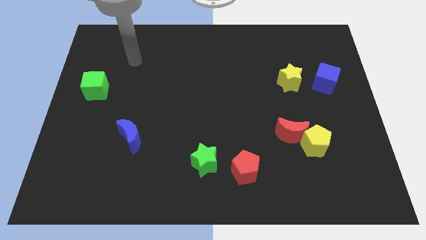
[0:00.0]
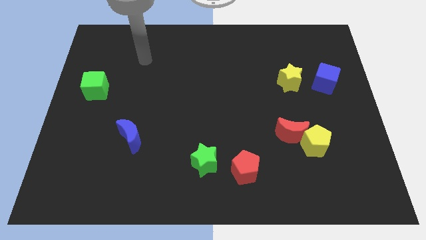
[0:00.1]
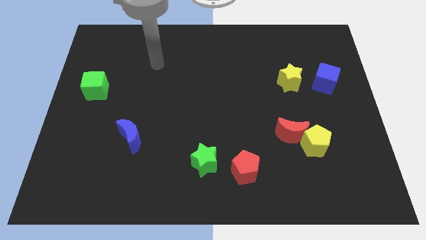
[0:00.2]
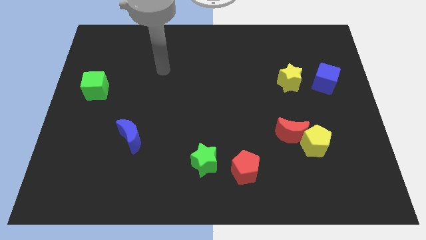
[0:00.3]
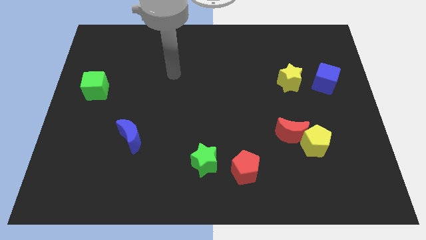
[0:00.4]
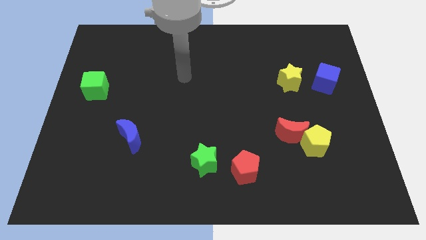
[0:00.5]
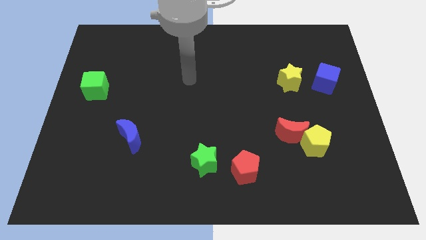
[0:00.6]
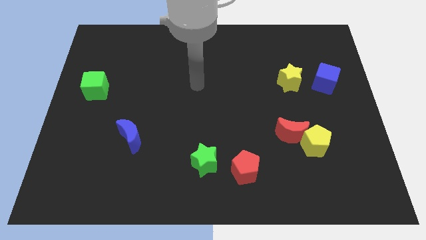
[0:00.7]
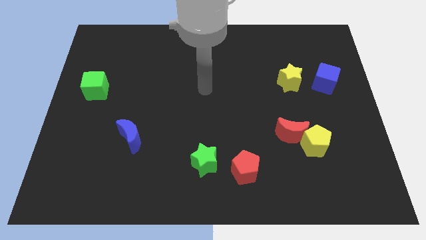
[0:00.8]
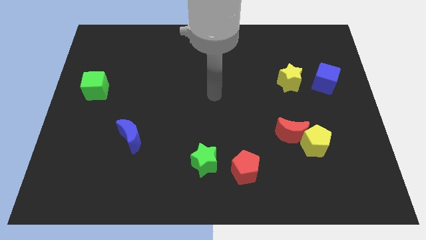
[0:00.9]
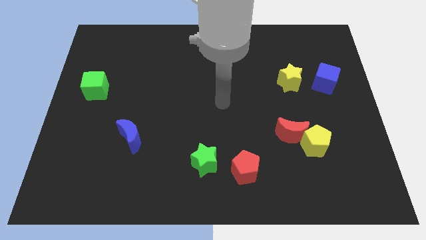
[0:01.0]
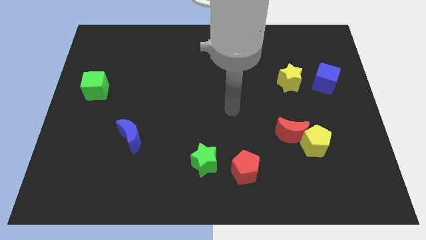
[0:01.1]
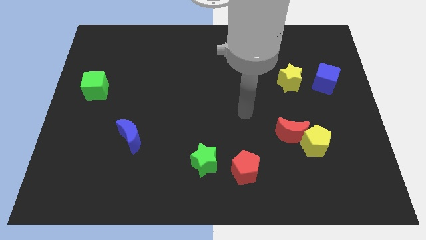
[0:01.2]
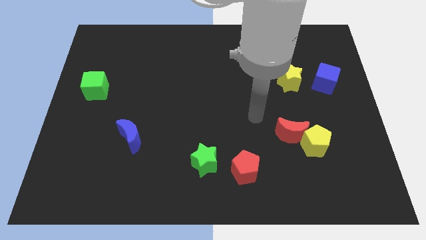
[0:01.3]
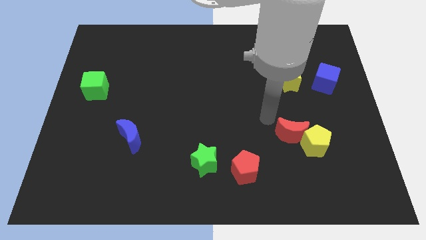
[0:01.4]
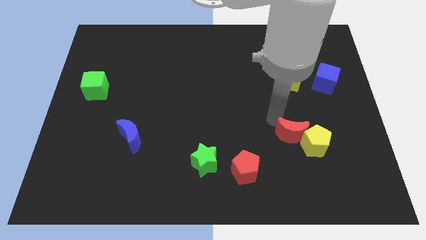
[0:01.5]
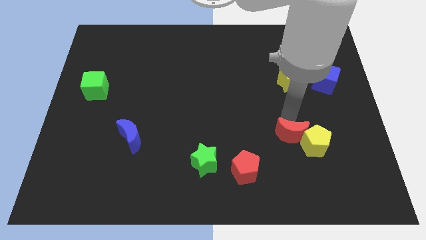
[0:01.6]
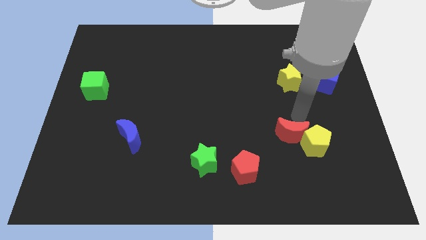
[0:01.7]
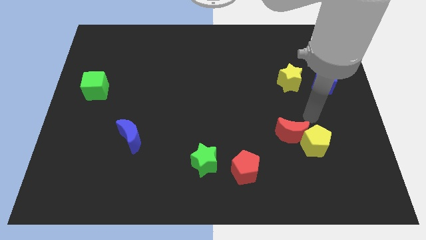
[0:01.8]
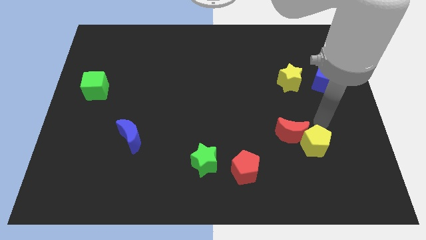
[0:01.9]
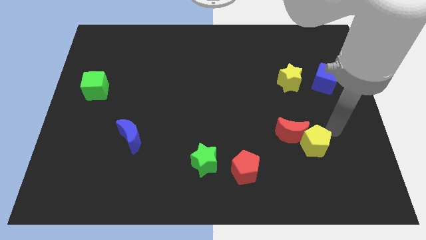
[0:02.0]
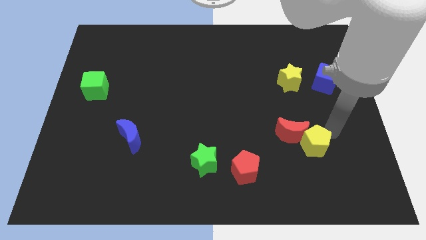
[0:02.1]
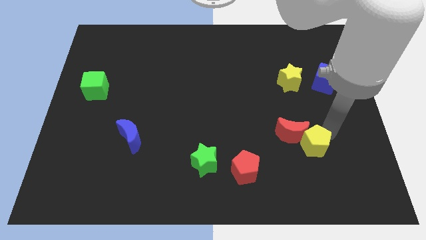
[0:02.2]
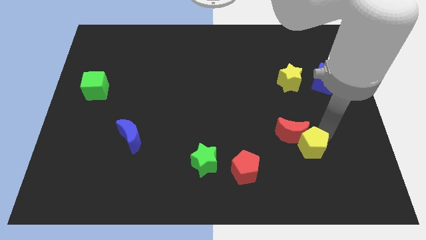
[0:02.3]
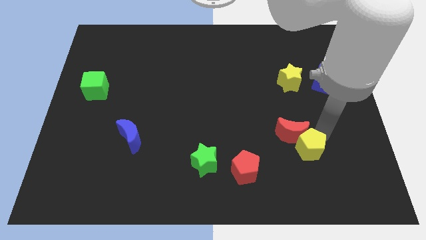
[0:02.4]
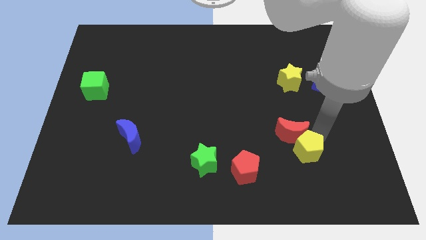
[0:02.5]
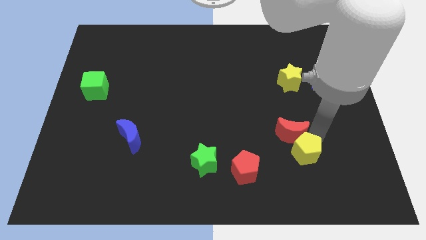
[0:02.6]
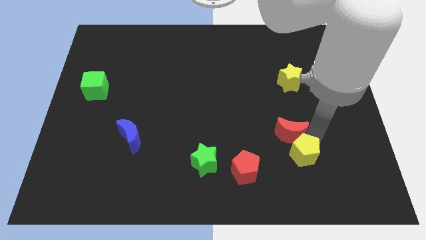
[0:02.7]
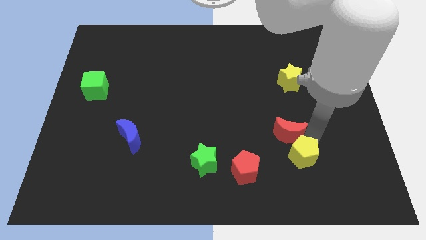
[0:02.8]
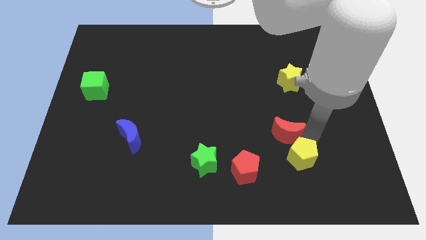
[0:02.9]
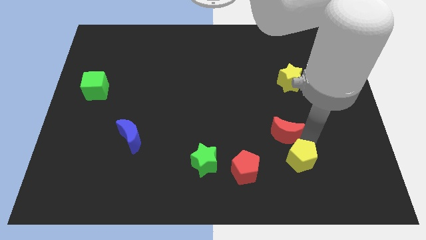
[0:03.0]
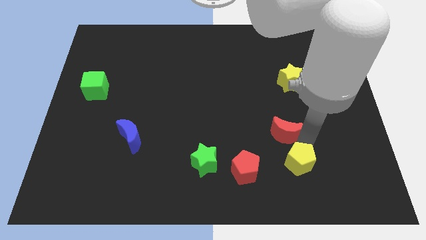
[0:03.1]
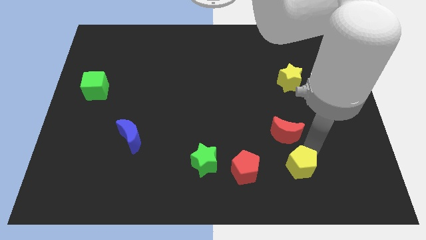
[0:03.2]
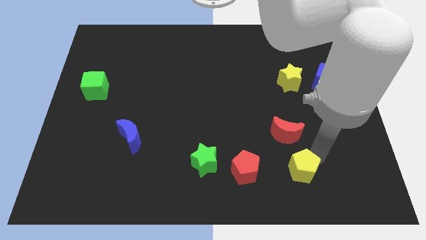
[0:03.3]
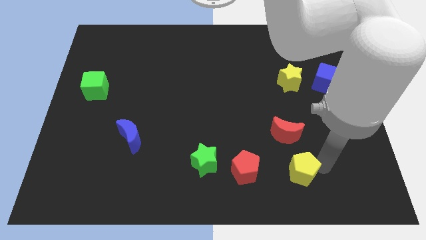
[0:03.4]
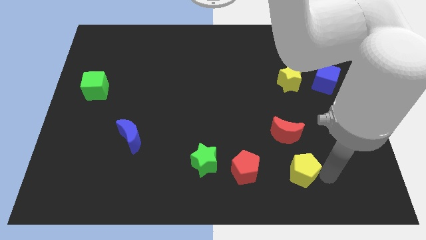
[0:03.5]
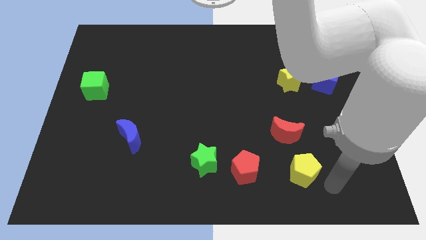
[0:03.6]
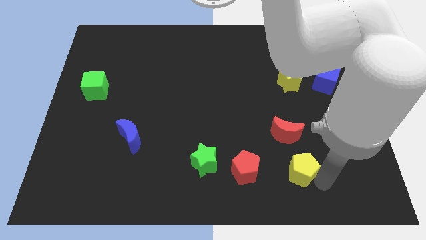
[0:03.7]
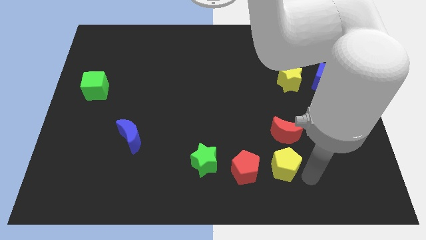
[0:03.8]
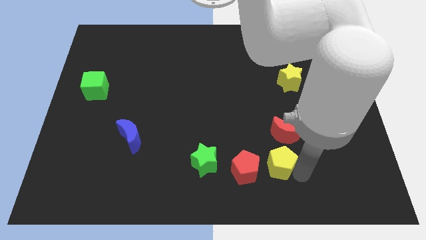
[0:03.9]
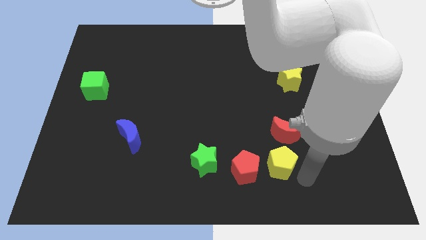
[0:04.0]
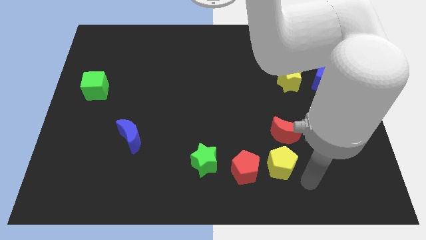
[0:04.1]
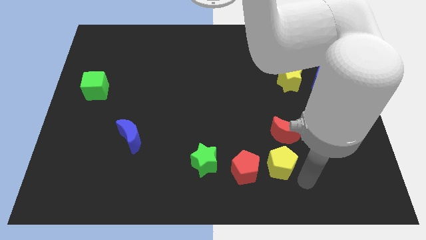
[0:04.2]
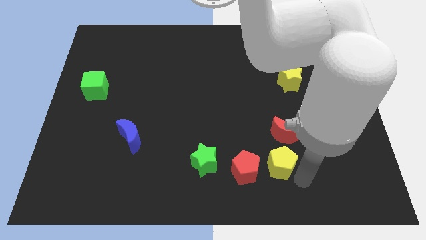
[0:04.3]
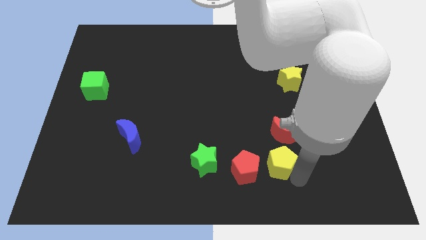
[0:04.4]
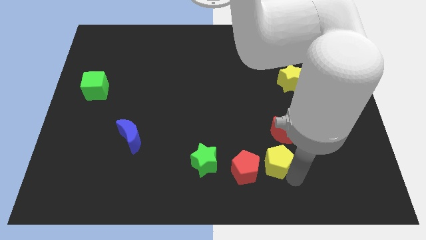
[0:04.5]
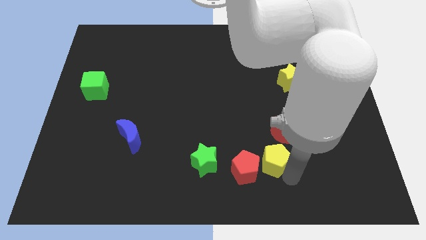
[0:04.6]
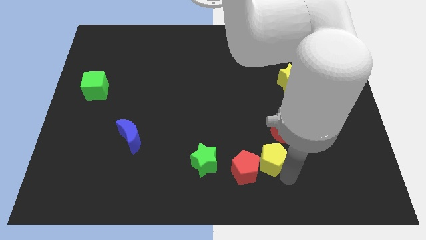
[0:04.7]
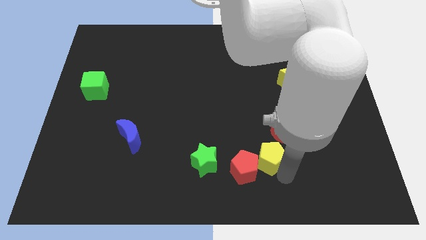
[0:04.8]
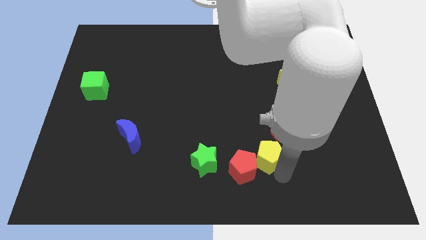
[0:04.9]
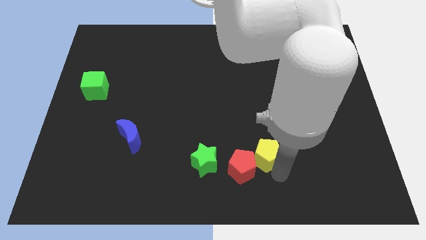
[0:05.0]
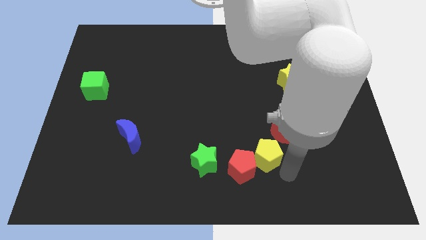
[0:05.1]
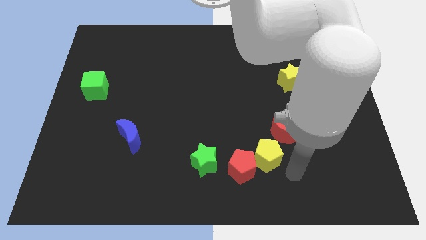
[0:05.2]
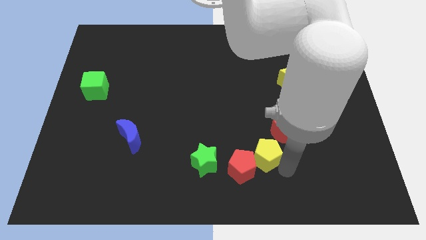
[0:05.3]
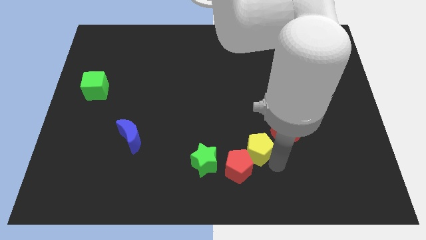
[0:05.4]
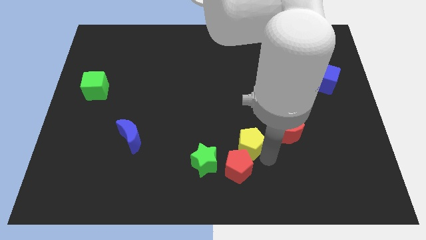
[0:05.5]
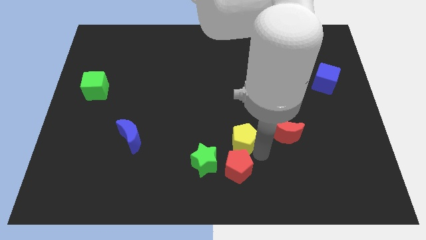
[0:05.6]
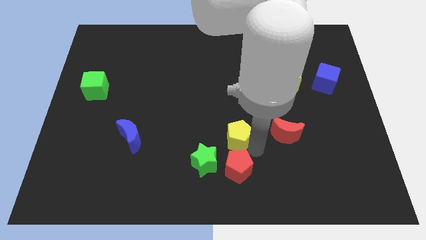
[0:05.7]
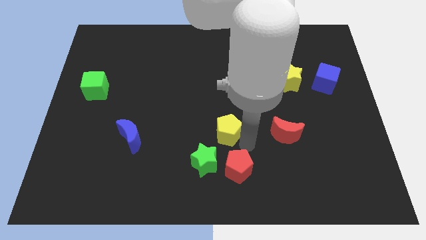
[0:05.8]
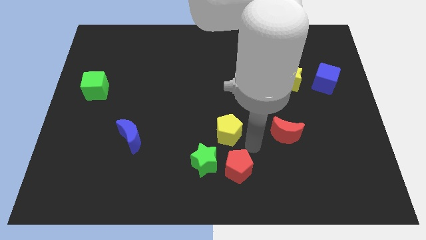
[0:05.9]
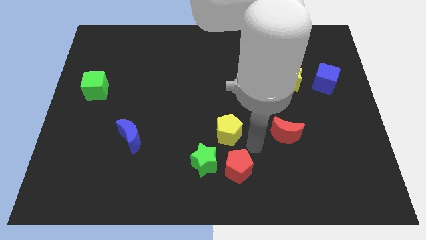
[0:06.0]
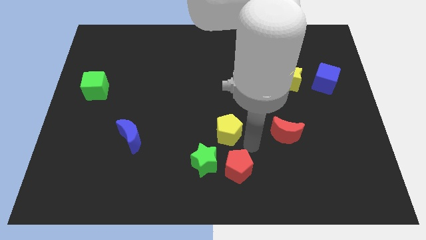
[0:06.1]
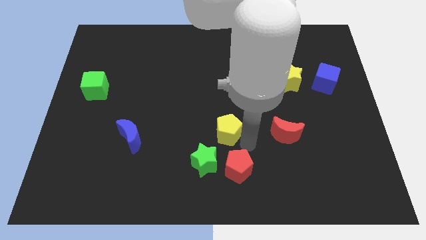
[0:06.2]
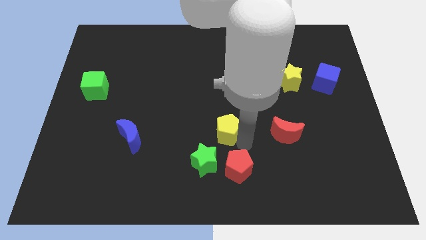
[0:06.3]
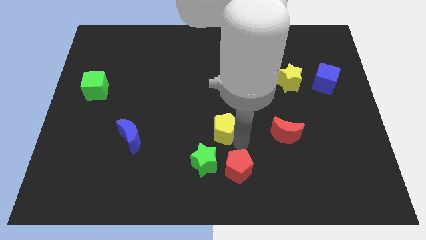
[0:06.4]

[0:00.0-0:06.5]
put the yellow pentagon to the top side of the green star

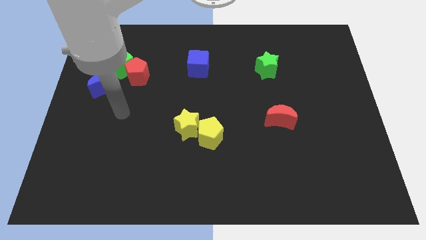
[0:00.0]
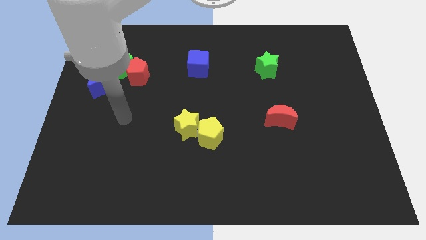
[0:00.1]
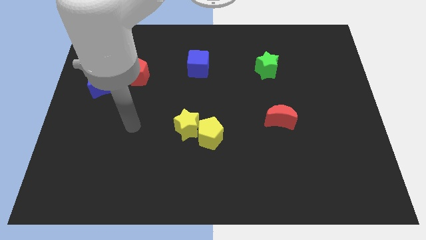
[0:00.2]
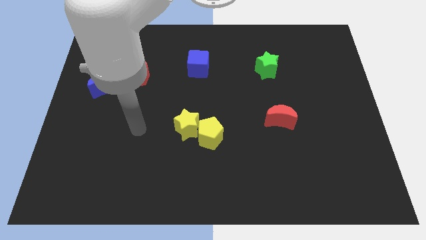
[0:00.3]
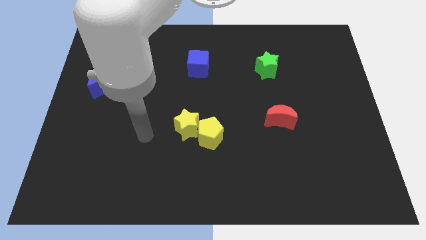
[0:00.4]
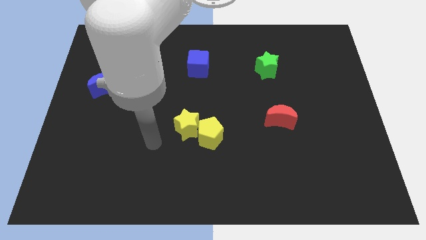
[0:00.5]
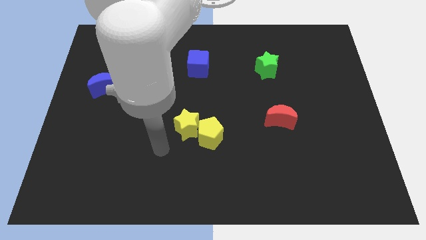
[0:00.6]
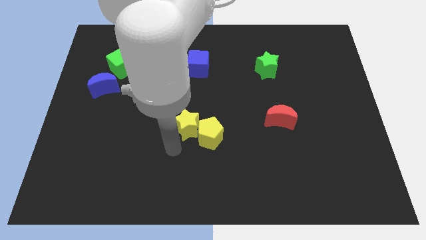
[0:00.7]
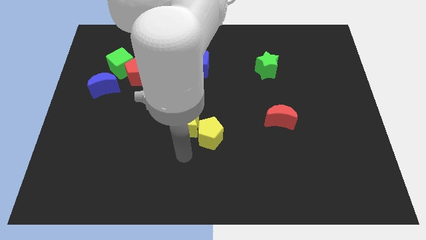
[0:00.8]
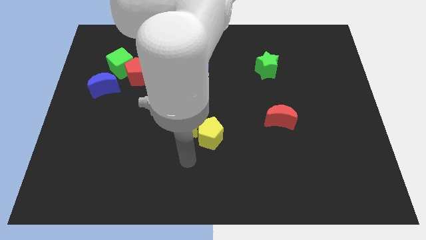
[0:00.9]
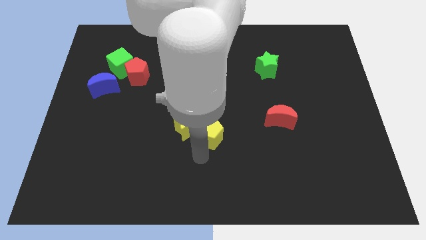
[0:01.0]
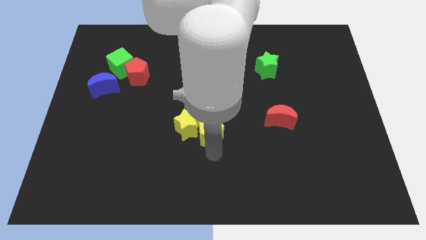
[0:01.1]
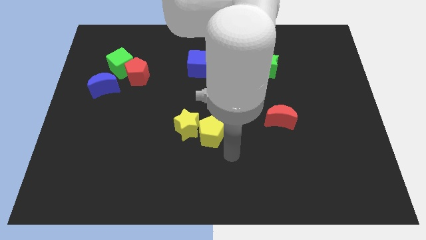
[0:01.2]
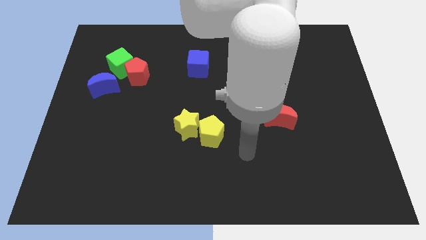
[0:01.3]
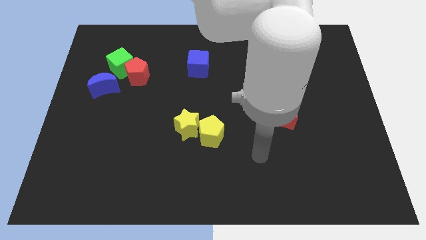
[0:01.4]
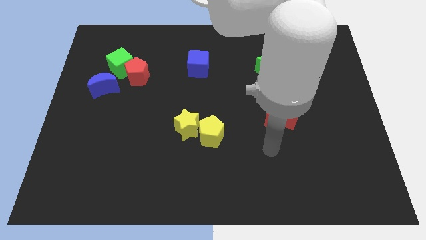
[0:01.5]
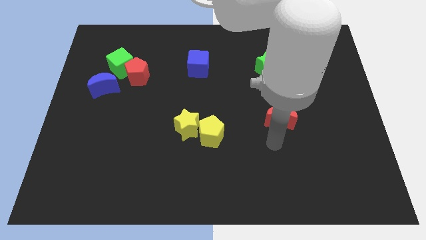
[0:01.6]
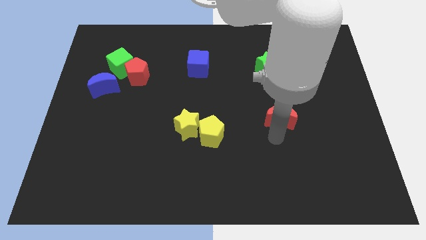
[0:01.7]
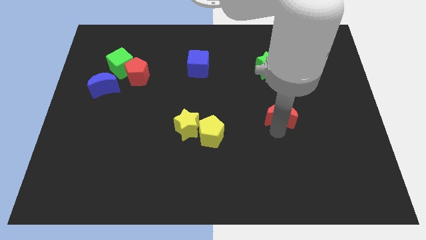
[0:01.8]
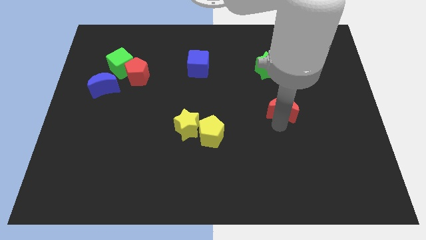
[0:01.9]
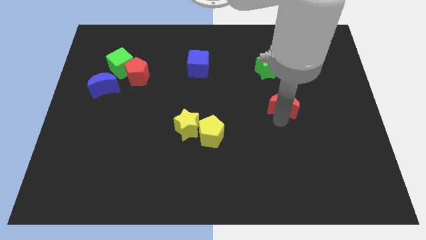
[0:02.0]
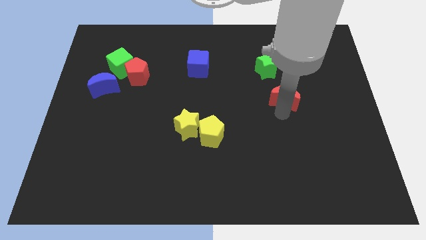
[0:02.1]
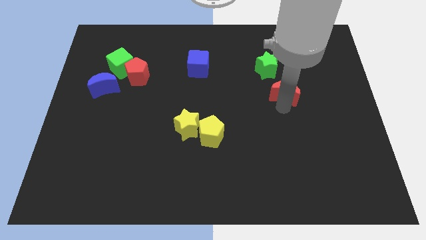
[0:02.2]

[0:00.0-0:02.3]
push the red moon to the bottom right side of the green star
